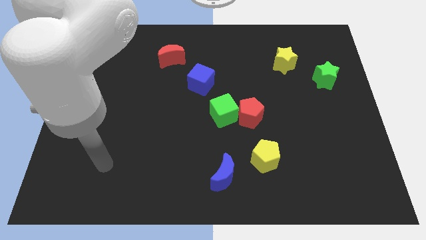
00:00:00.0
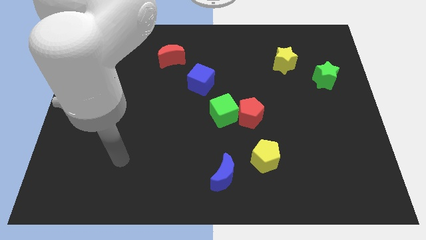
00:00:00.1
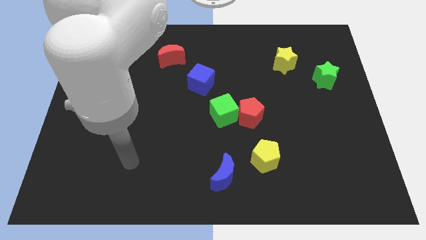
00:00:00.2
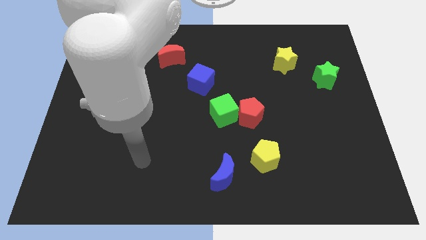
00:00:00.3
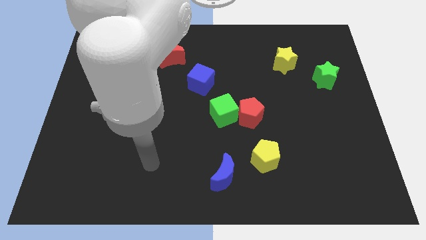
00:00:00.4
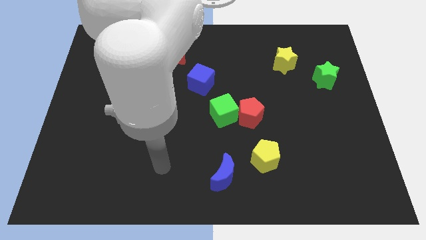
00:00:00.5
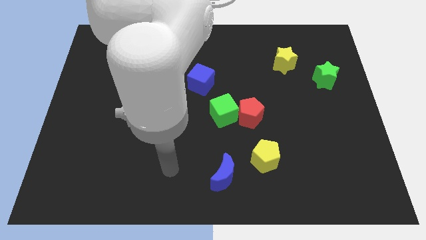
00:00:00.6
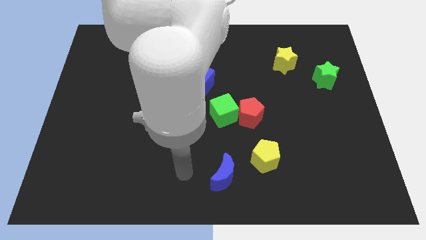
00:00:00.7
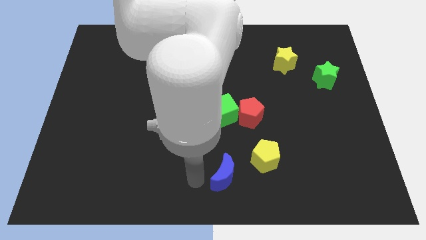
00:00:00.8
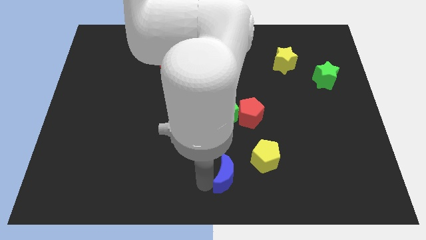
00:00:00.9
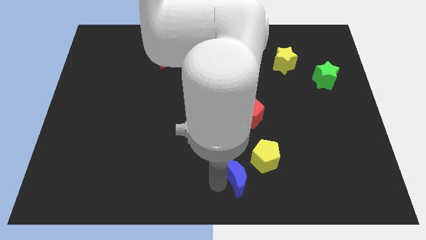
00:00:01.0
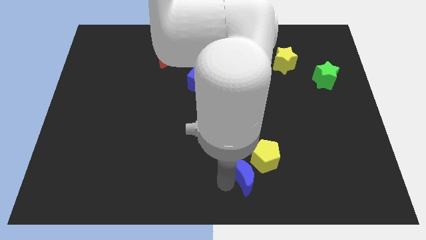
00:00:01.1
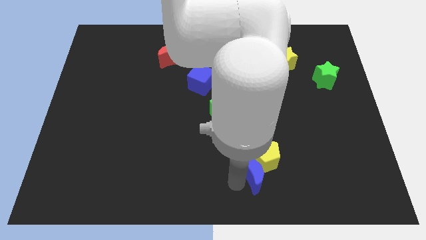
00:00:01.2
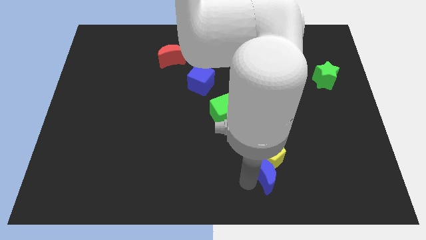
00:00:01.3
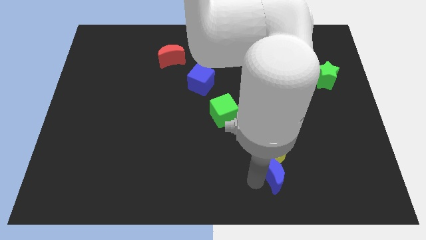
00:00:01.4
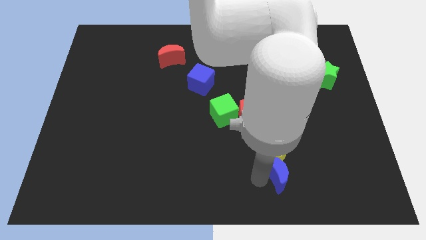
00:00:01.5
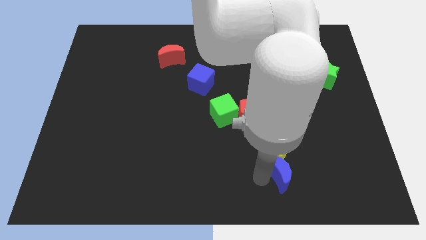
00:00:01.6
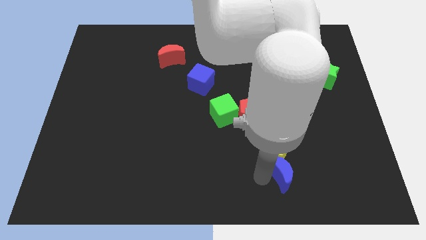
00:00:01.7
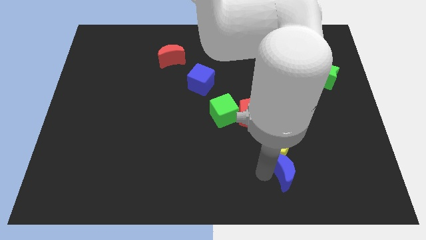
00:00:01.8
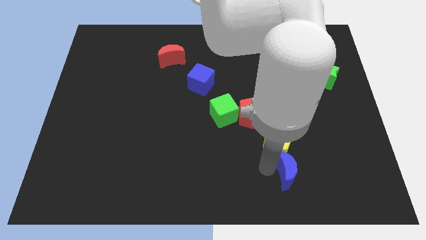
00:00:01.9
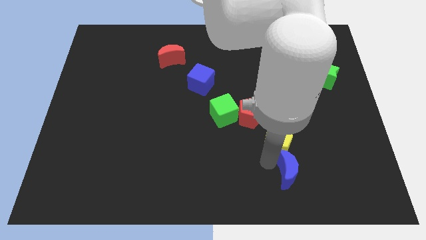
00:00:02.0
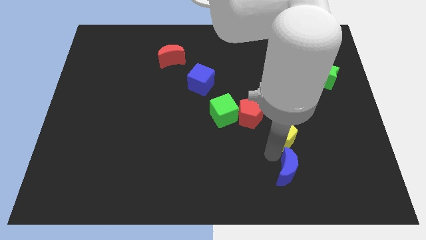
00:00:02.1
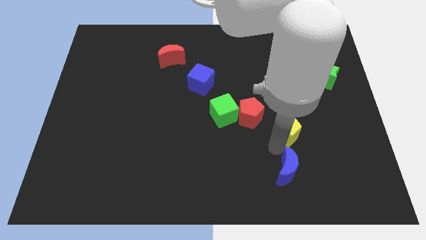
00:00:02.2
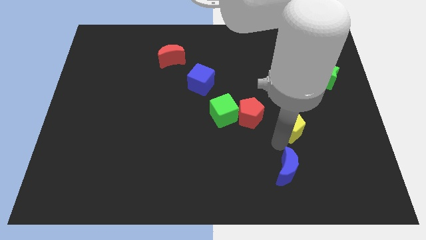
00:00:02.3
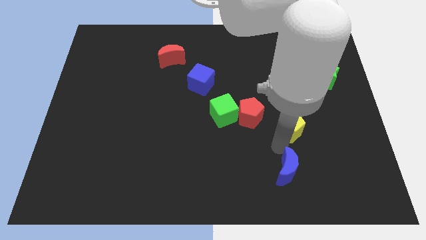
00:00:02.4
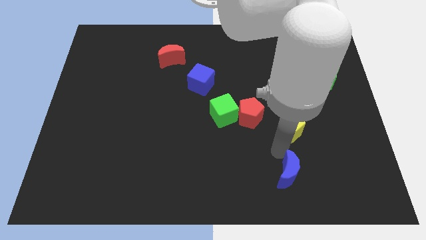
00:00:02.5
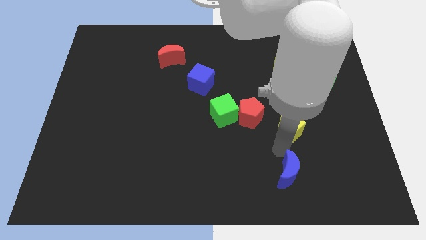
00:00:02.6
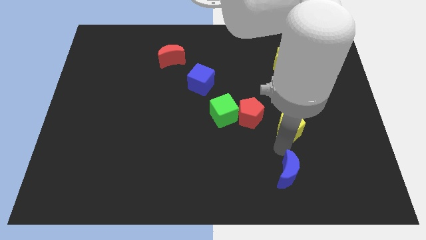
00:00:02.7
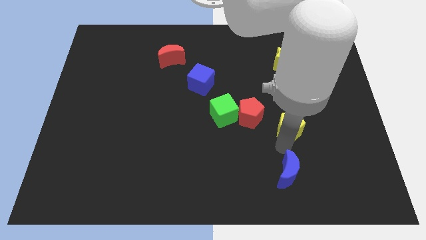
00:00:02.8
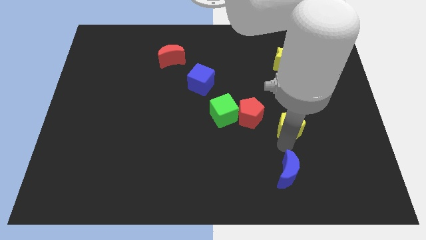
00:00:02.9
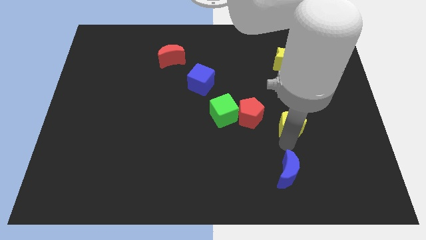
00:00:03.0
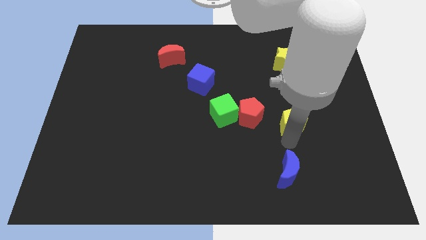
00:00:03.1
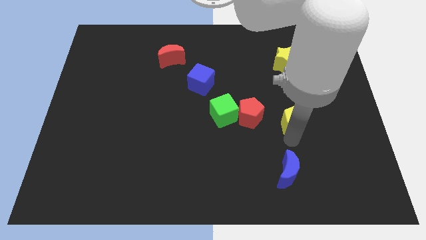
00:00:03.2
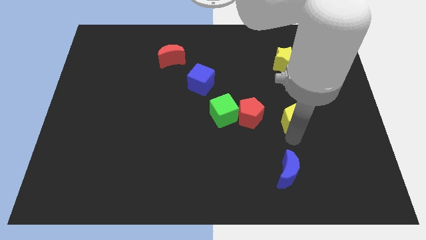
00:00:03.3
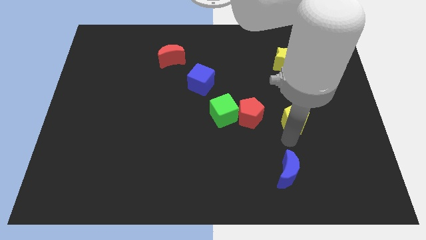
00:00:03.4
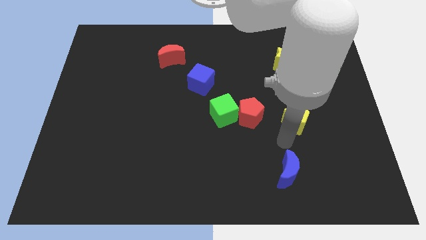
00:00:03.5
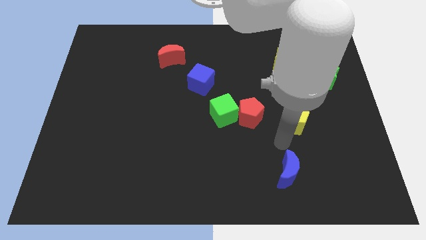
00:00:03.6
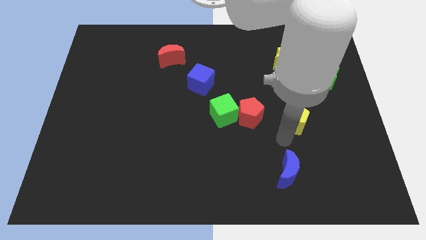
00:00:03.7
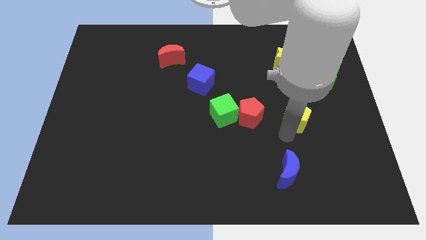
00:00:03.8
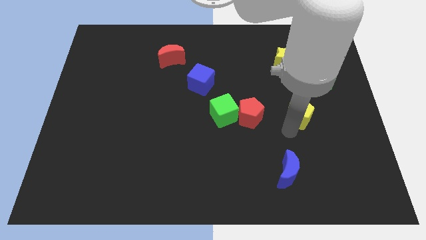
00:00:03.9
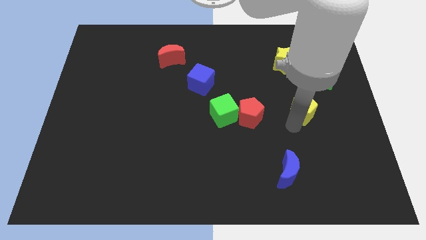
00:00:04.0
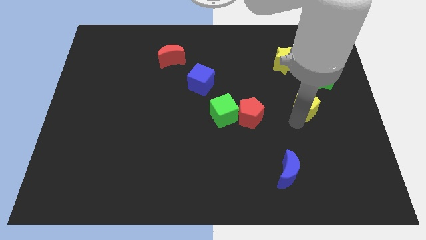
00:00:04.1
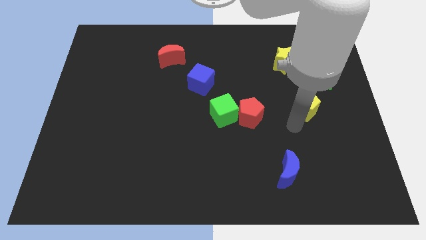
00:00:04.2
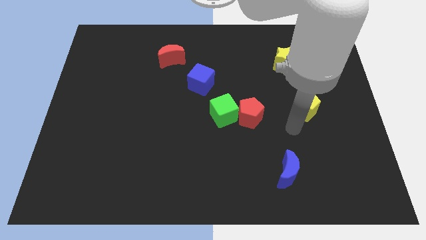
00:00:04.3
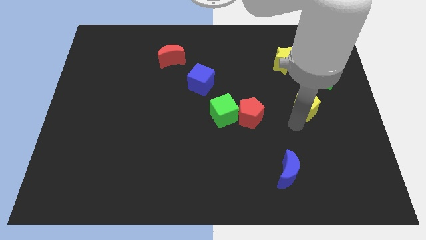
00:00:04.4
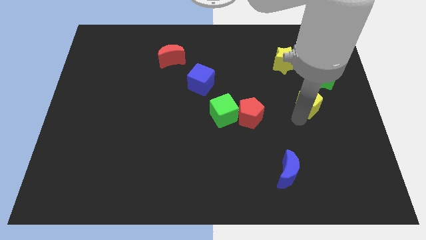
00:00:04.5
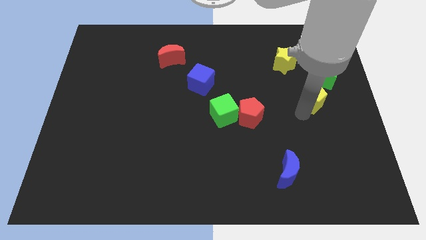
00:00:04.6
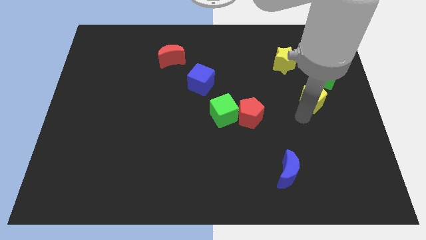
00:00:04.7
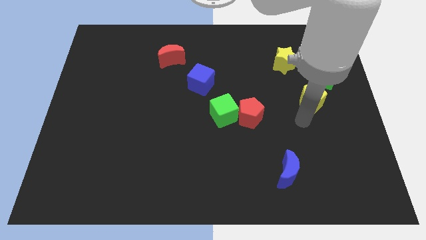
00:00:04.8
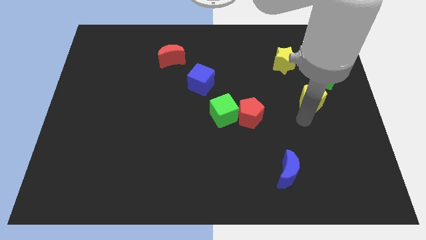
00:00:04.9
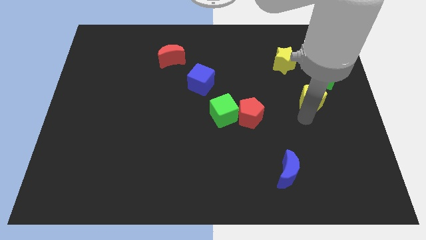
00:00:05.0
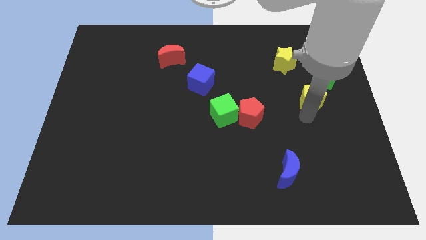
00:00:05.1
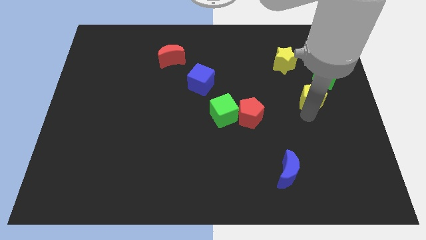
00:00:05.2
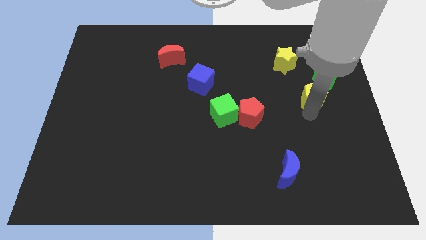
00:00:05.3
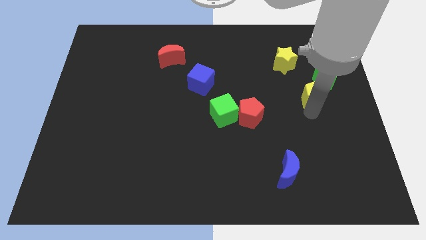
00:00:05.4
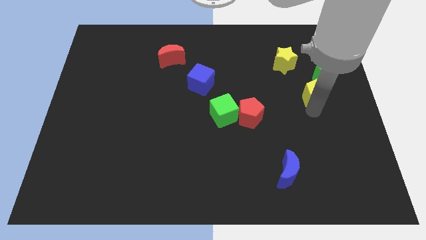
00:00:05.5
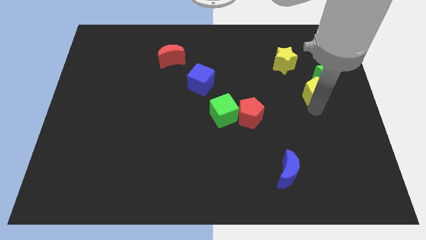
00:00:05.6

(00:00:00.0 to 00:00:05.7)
move the yellow pentagon next to the green star

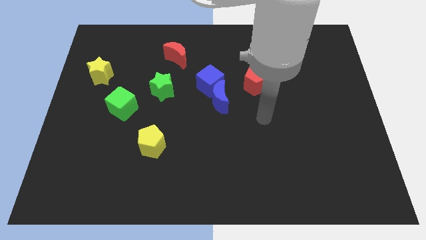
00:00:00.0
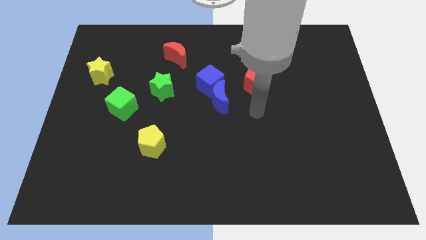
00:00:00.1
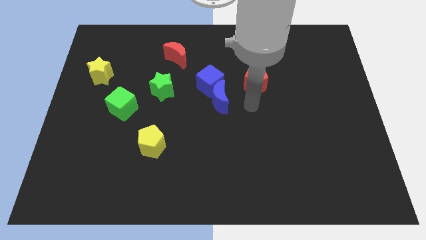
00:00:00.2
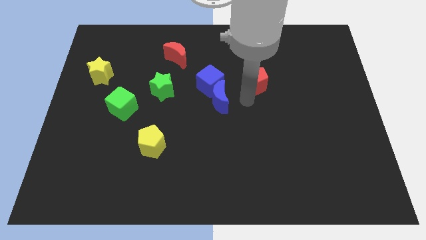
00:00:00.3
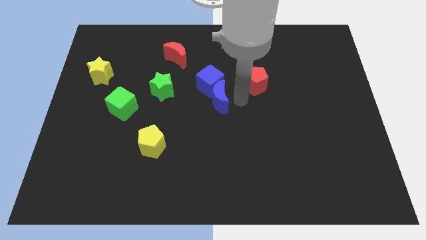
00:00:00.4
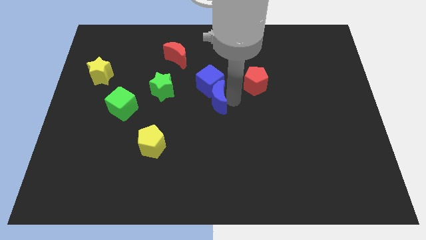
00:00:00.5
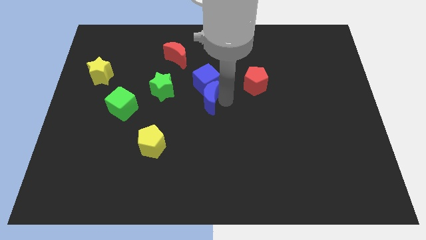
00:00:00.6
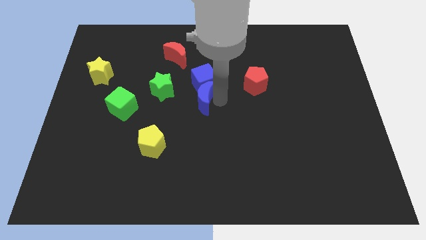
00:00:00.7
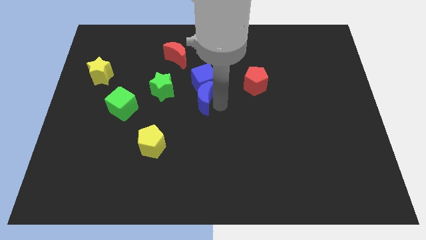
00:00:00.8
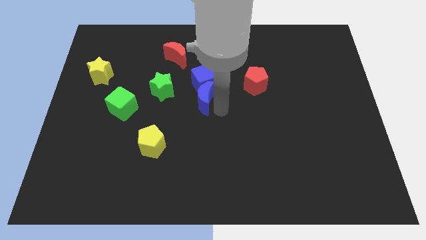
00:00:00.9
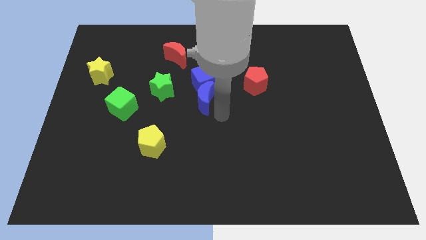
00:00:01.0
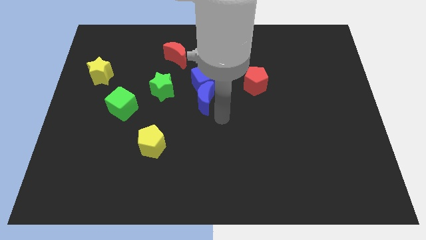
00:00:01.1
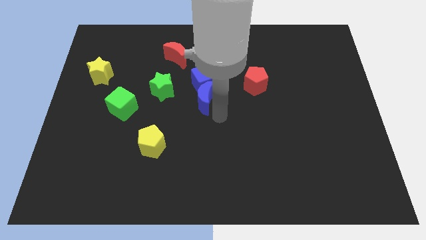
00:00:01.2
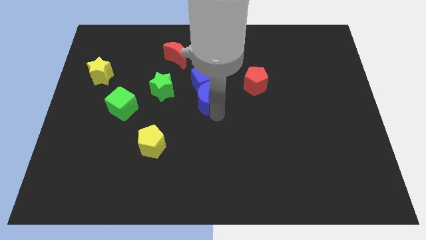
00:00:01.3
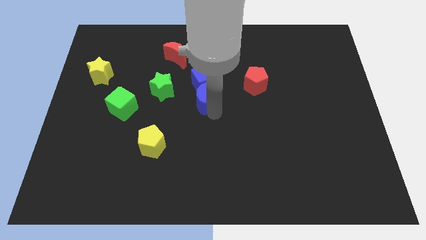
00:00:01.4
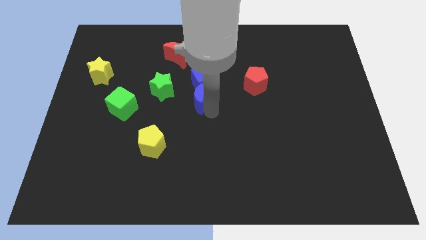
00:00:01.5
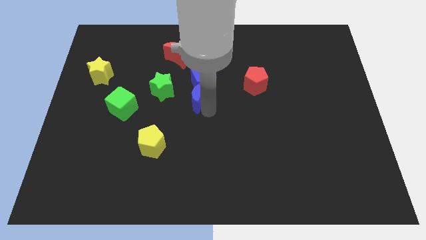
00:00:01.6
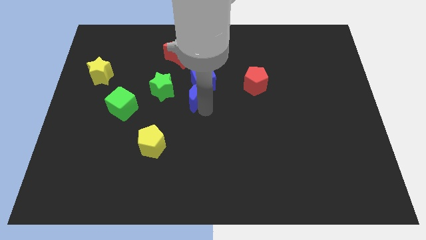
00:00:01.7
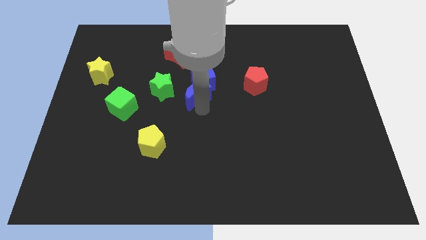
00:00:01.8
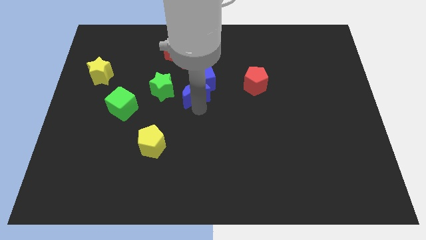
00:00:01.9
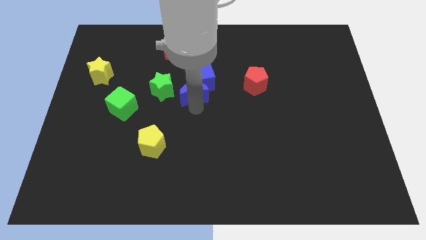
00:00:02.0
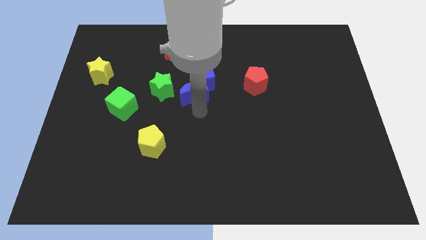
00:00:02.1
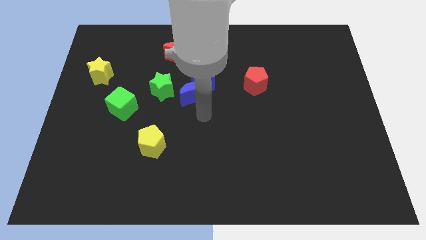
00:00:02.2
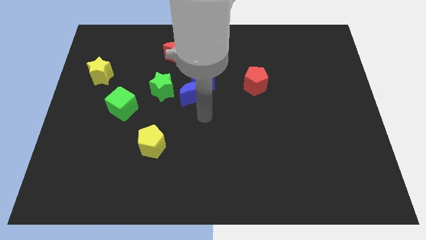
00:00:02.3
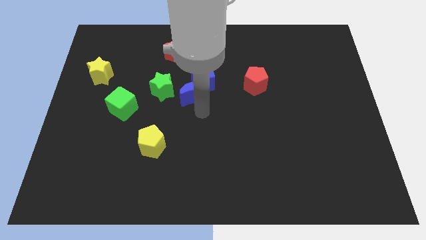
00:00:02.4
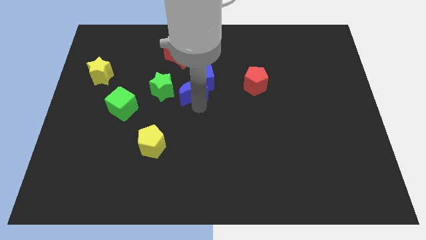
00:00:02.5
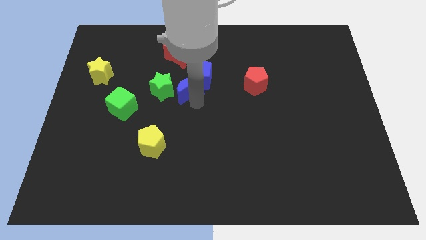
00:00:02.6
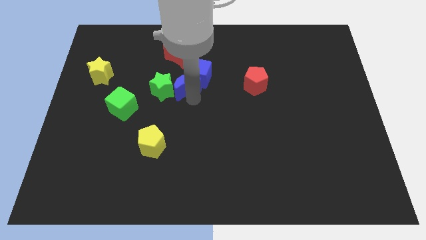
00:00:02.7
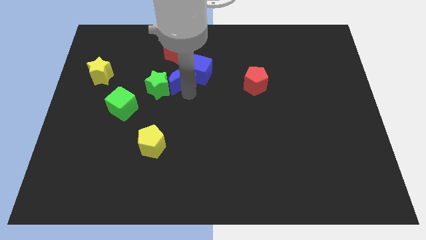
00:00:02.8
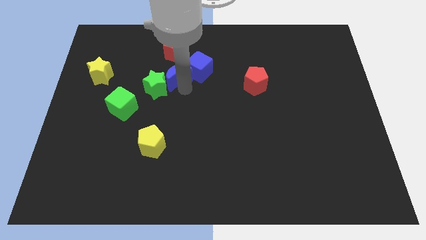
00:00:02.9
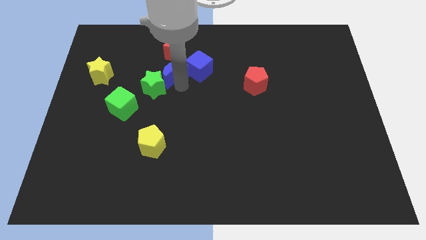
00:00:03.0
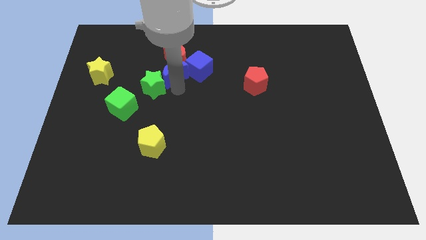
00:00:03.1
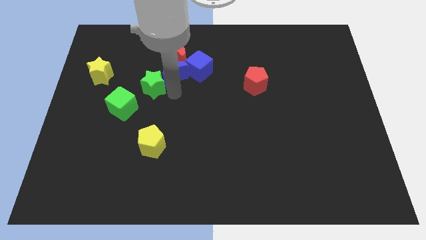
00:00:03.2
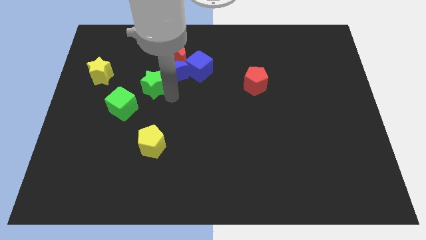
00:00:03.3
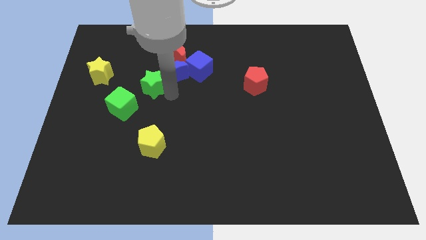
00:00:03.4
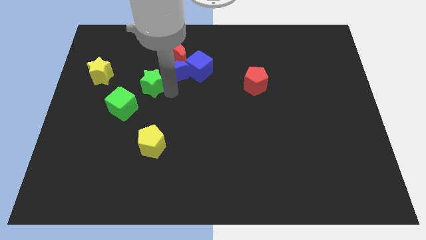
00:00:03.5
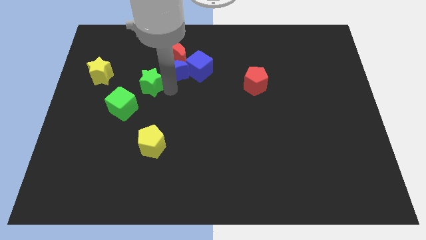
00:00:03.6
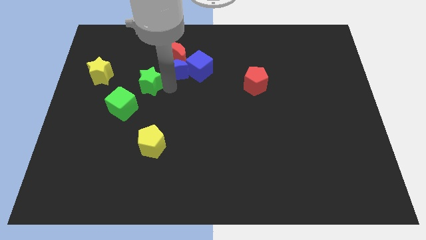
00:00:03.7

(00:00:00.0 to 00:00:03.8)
push the blue moon to the red moon
